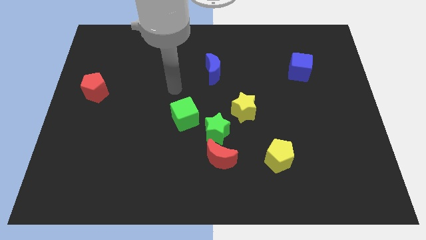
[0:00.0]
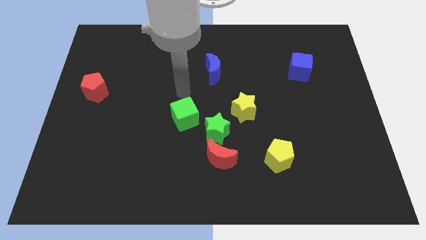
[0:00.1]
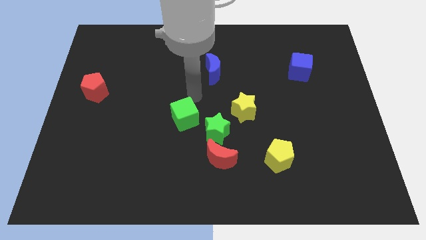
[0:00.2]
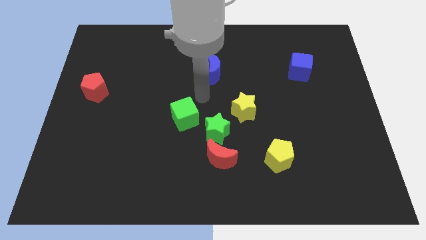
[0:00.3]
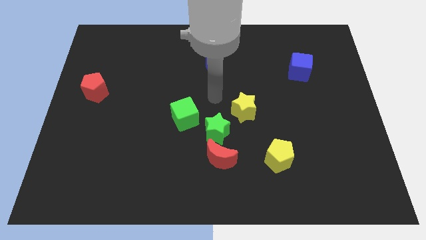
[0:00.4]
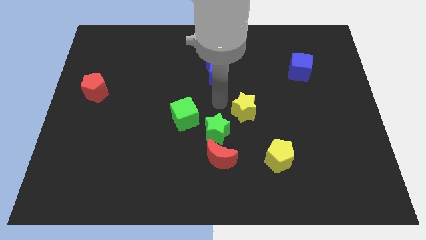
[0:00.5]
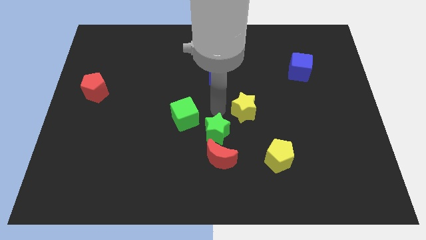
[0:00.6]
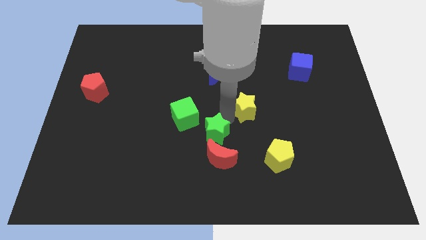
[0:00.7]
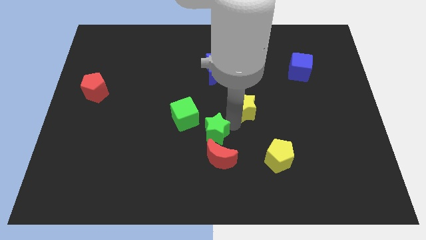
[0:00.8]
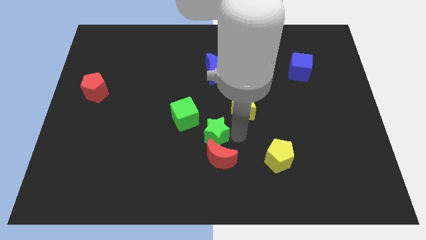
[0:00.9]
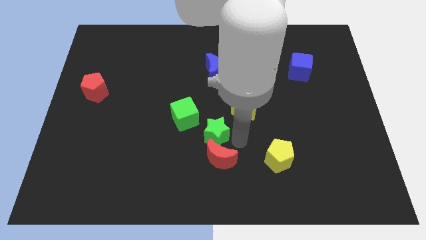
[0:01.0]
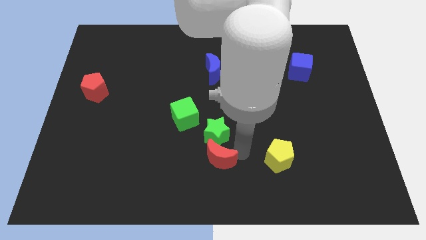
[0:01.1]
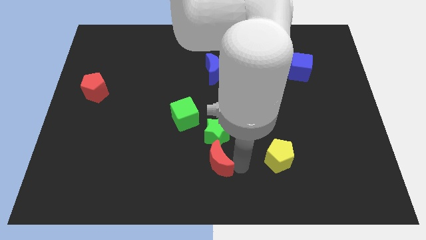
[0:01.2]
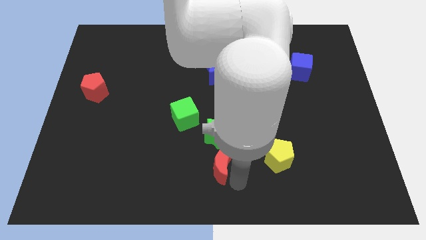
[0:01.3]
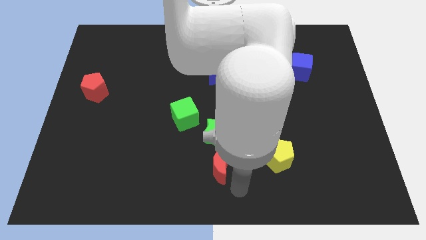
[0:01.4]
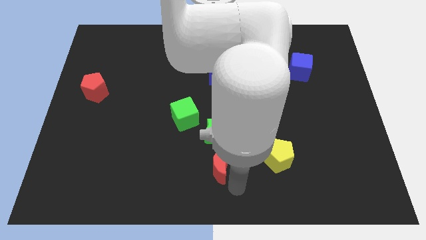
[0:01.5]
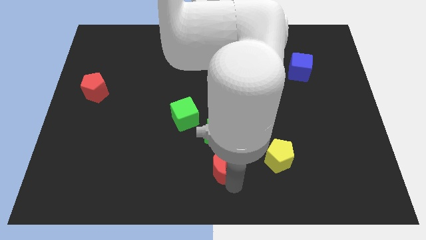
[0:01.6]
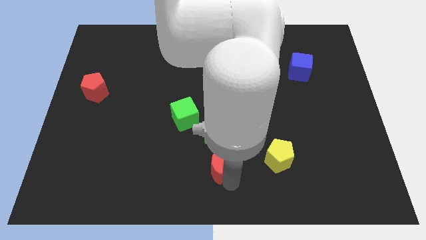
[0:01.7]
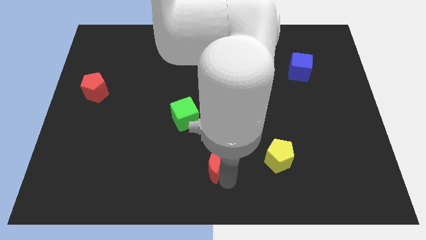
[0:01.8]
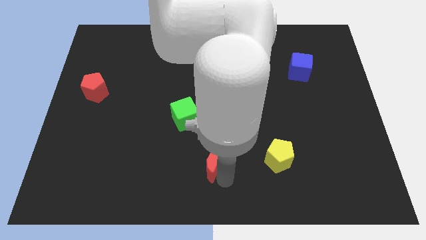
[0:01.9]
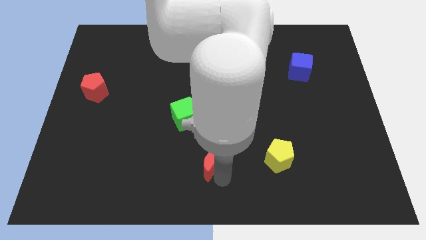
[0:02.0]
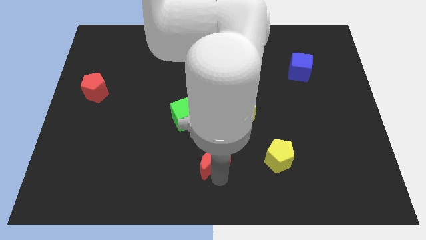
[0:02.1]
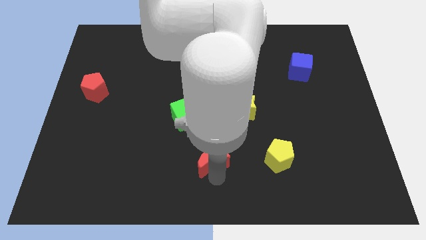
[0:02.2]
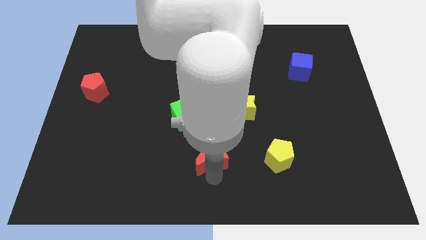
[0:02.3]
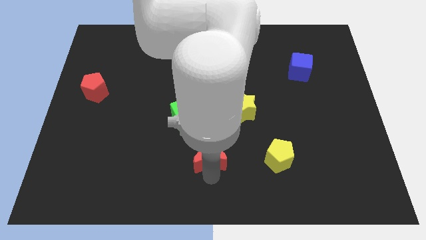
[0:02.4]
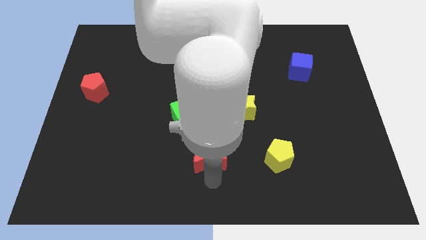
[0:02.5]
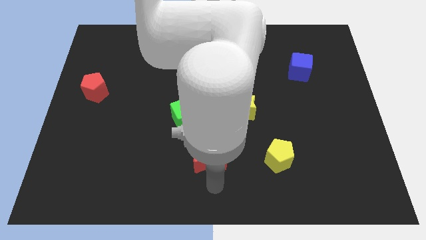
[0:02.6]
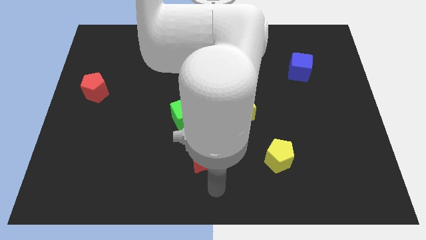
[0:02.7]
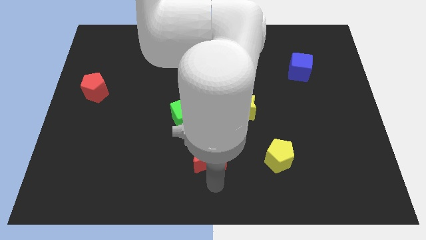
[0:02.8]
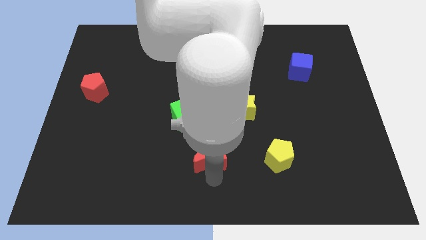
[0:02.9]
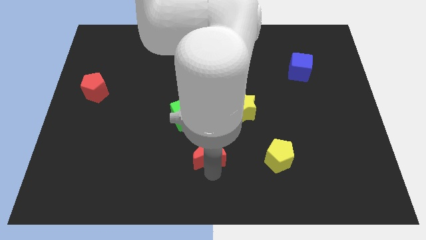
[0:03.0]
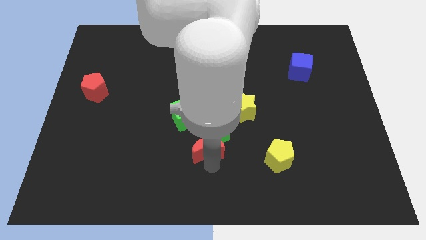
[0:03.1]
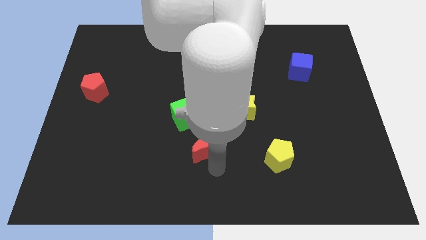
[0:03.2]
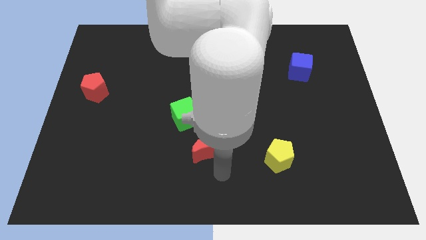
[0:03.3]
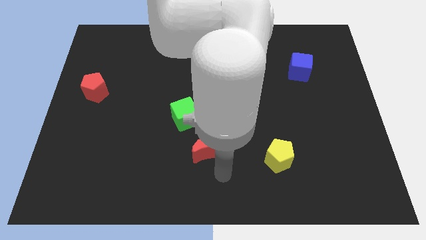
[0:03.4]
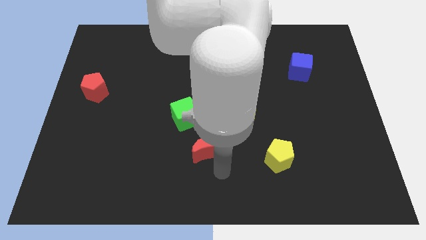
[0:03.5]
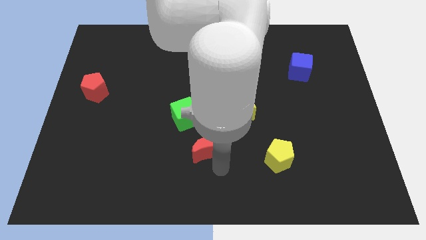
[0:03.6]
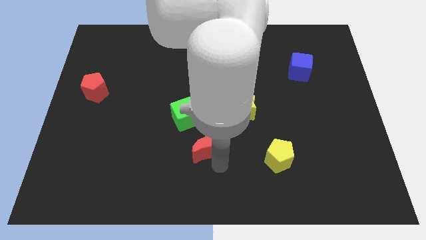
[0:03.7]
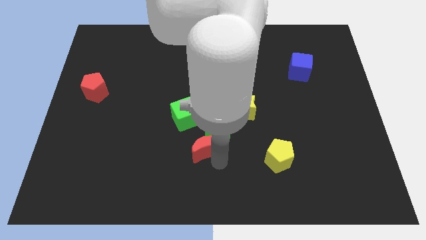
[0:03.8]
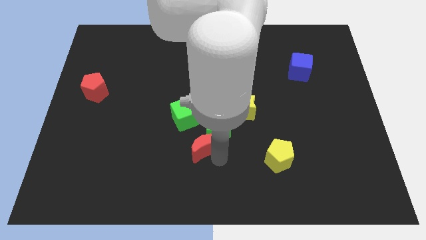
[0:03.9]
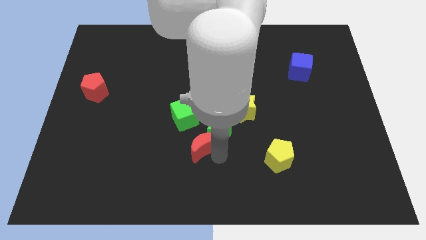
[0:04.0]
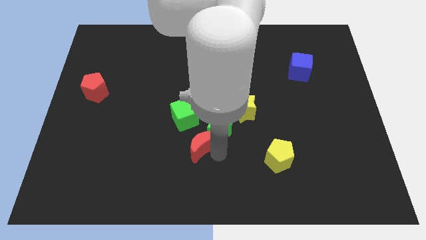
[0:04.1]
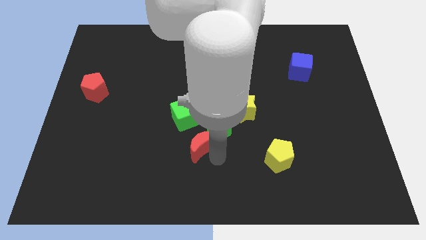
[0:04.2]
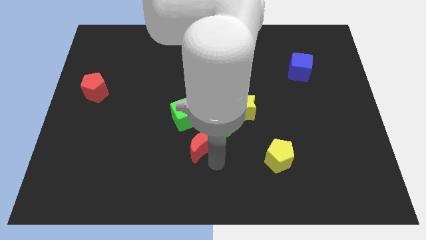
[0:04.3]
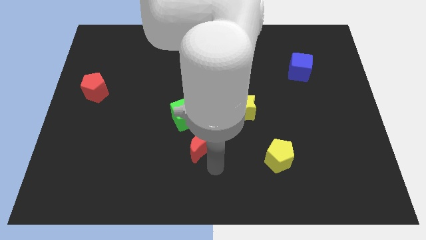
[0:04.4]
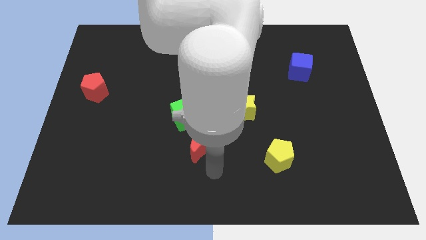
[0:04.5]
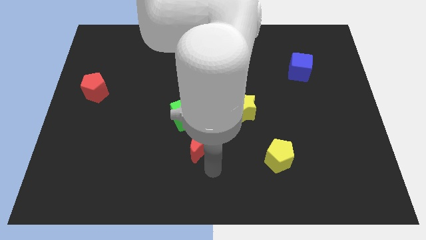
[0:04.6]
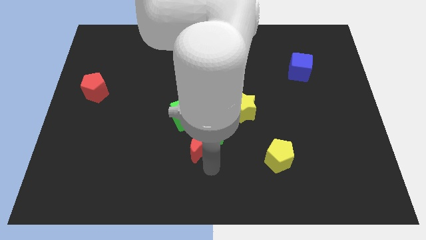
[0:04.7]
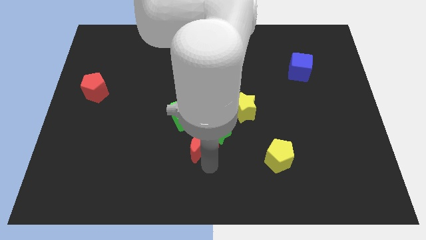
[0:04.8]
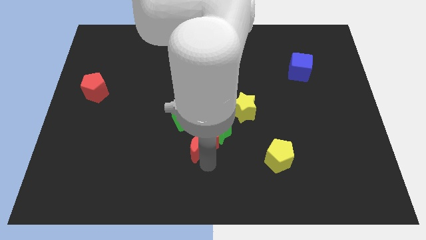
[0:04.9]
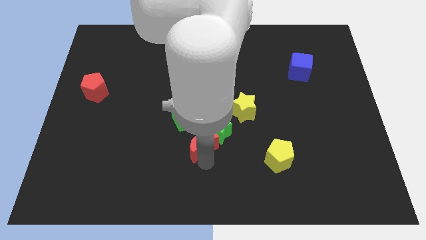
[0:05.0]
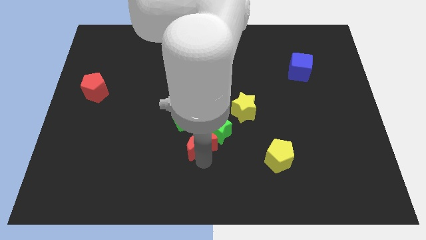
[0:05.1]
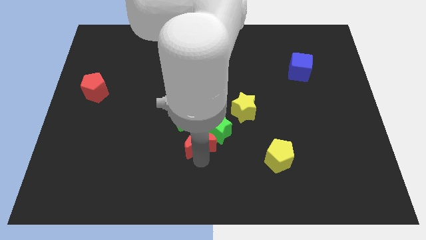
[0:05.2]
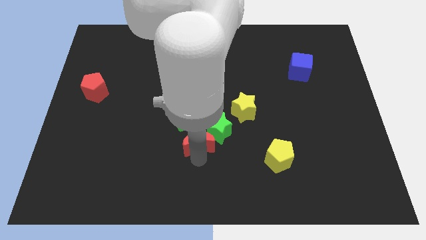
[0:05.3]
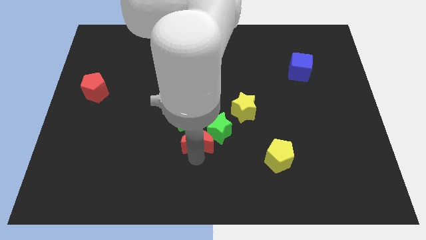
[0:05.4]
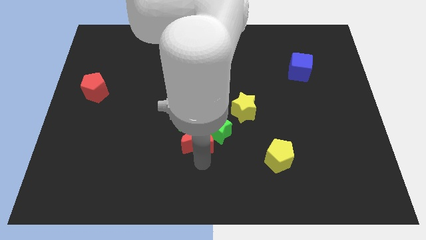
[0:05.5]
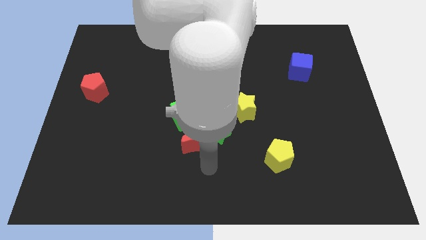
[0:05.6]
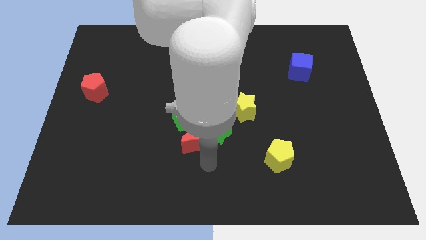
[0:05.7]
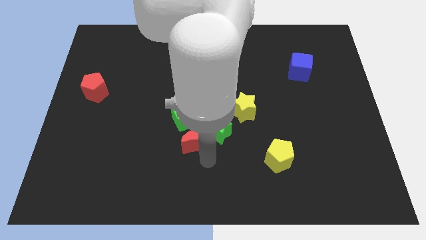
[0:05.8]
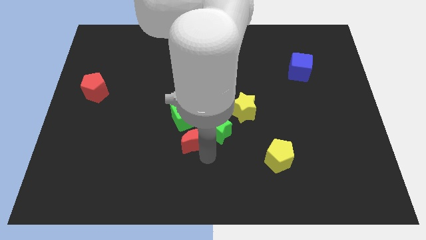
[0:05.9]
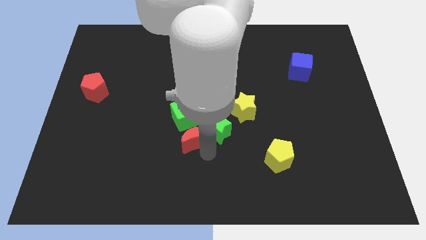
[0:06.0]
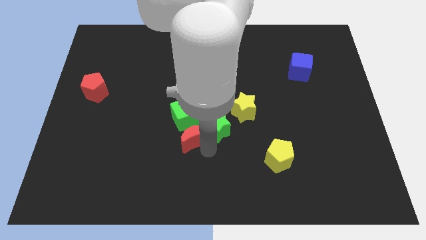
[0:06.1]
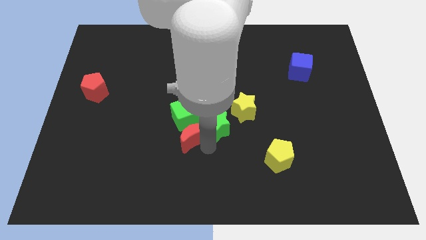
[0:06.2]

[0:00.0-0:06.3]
put the red moon to the green cube

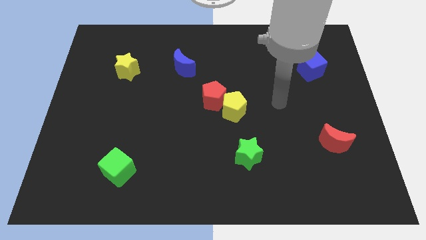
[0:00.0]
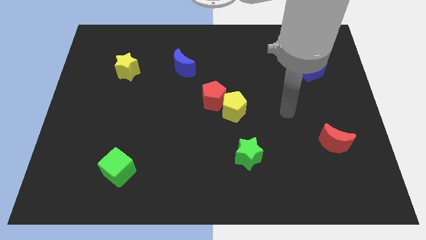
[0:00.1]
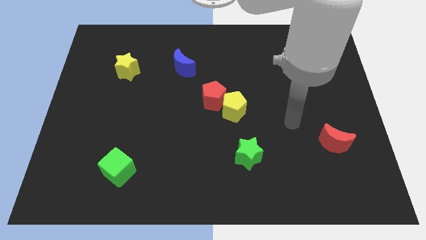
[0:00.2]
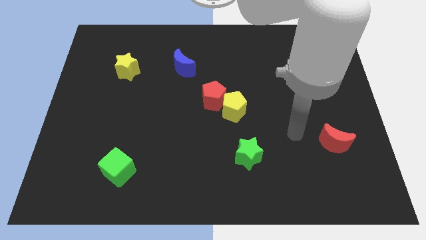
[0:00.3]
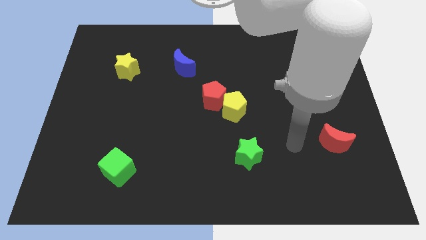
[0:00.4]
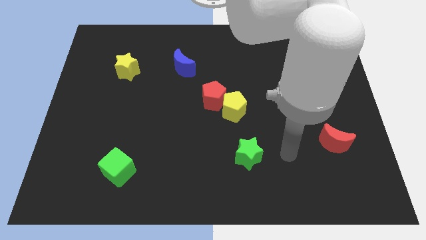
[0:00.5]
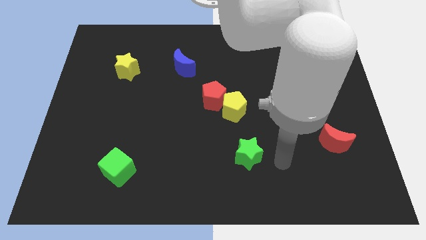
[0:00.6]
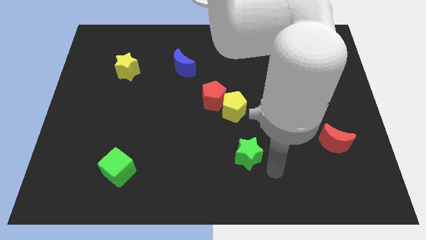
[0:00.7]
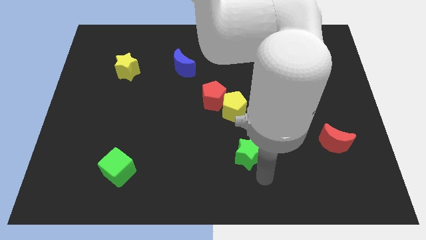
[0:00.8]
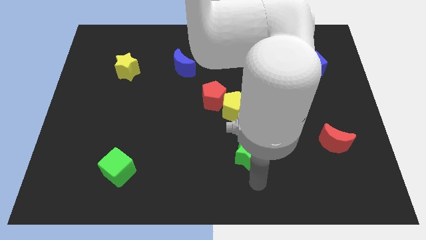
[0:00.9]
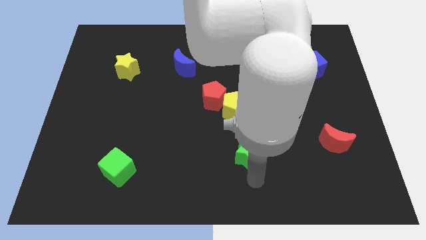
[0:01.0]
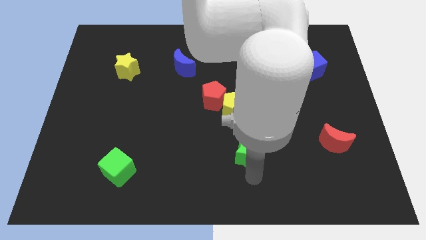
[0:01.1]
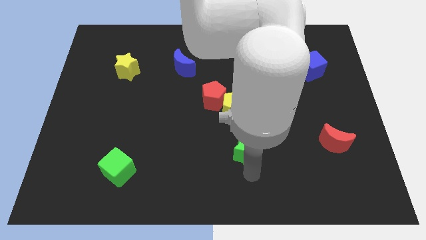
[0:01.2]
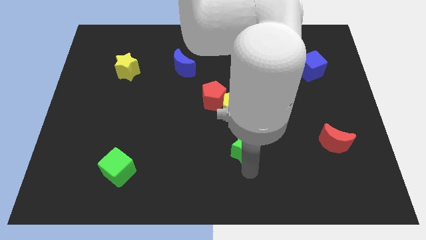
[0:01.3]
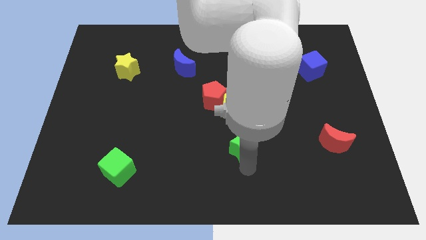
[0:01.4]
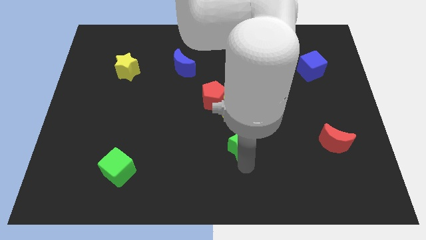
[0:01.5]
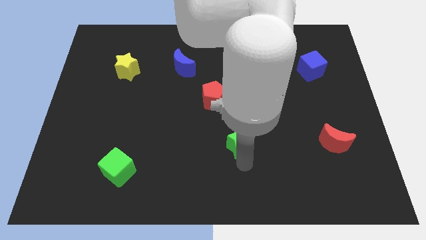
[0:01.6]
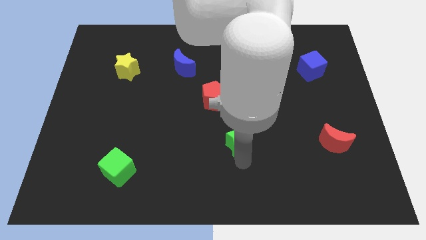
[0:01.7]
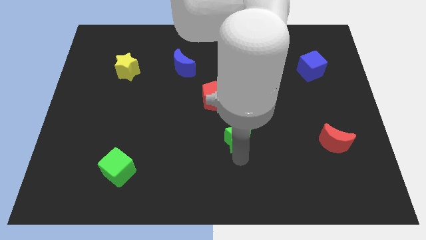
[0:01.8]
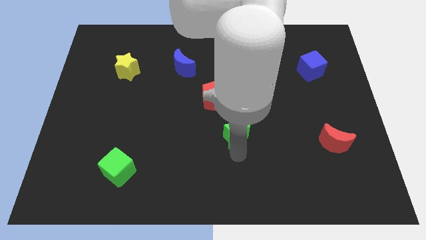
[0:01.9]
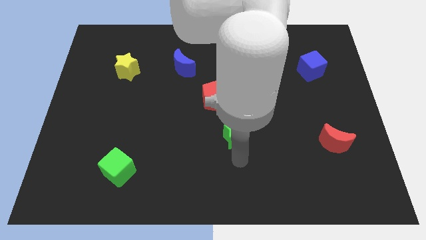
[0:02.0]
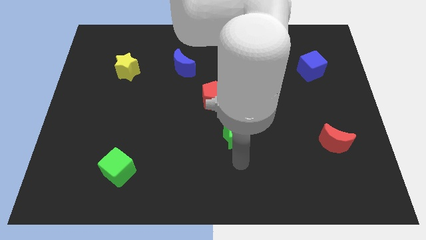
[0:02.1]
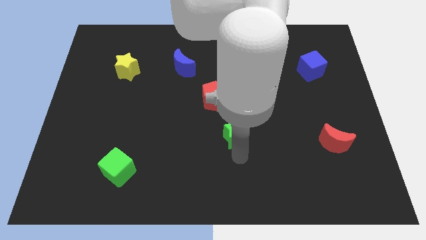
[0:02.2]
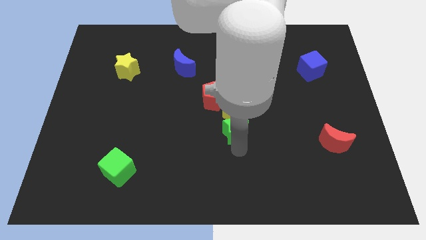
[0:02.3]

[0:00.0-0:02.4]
put the green star next to the yellow pentagon
